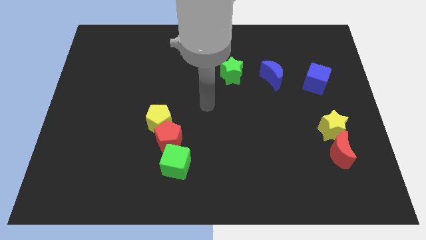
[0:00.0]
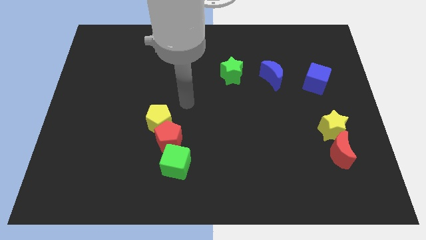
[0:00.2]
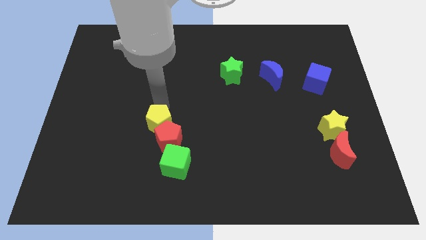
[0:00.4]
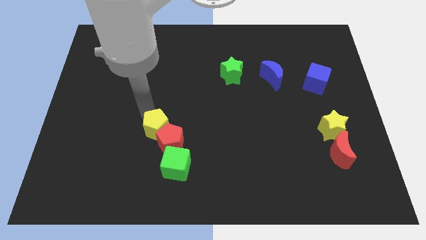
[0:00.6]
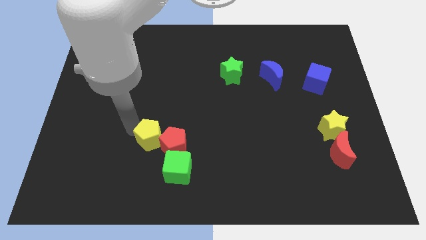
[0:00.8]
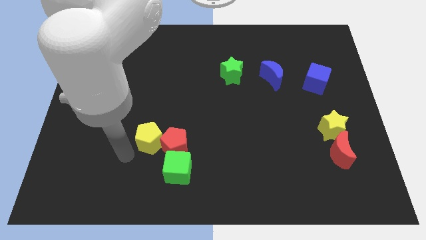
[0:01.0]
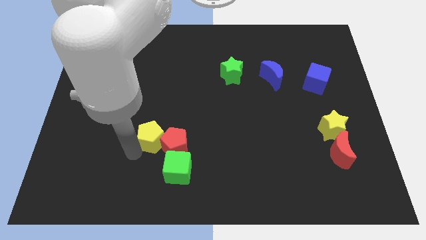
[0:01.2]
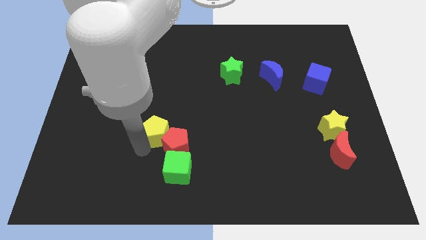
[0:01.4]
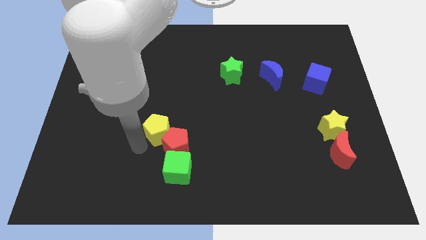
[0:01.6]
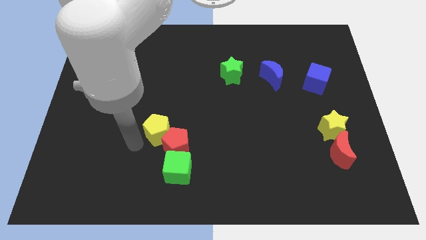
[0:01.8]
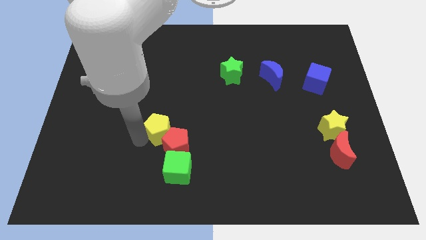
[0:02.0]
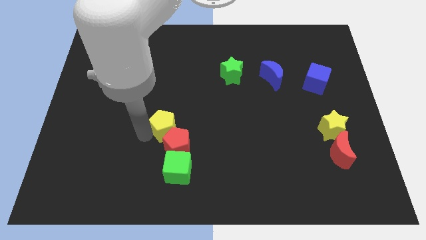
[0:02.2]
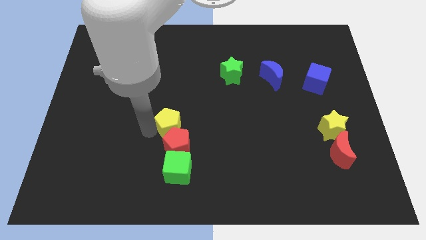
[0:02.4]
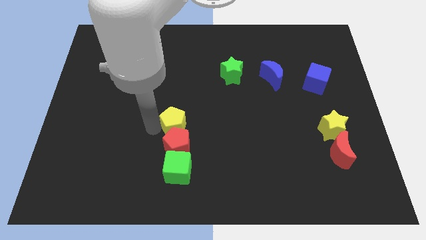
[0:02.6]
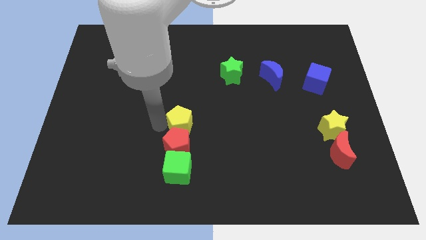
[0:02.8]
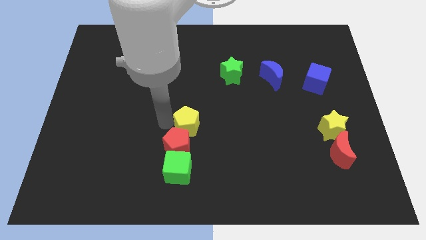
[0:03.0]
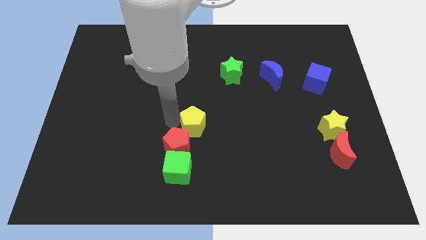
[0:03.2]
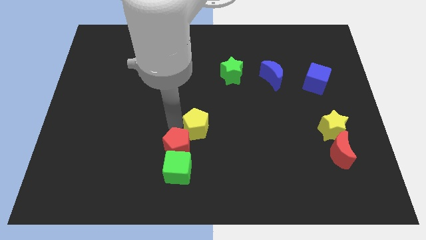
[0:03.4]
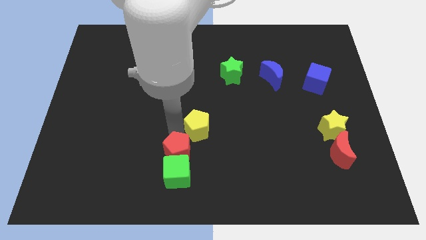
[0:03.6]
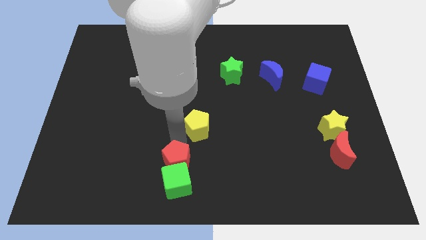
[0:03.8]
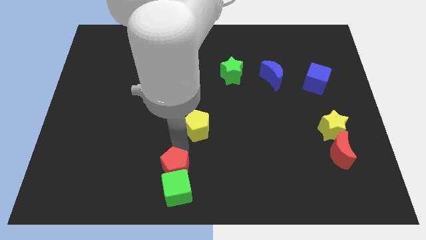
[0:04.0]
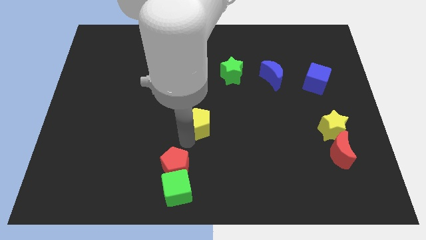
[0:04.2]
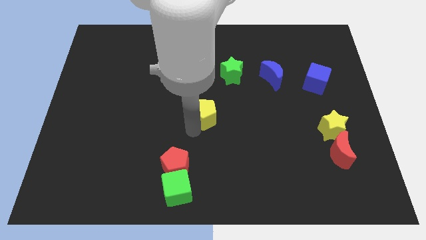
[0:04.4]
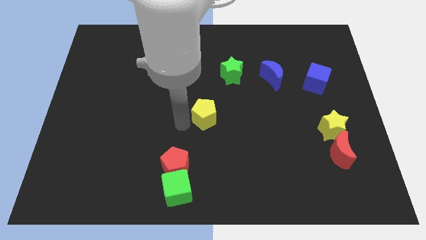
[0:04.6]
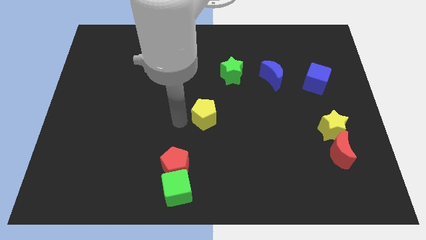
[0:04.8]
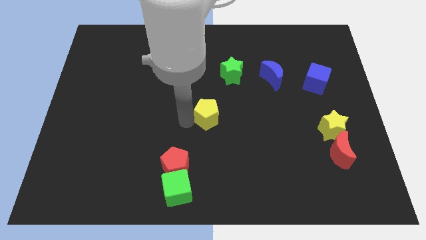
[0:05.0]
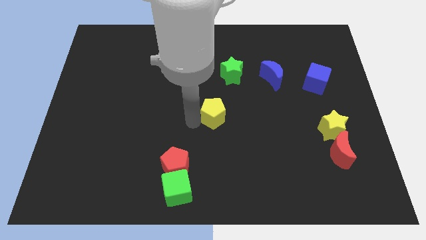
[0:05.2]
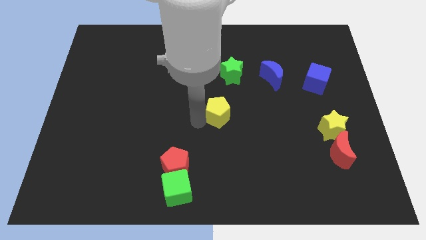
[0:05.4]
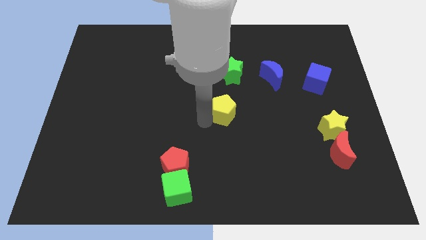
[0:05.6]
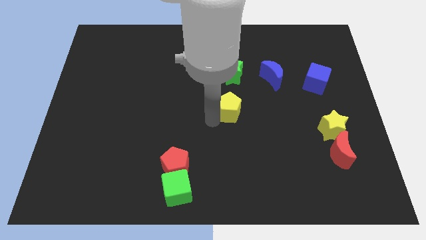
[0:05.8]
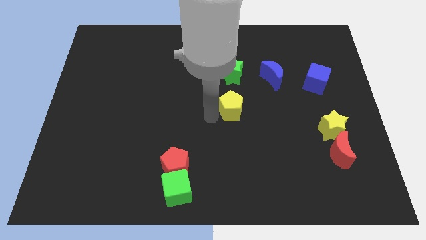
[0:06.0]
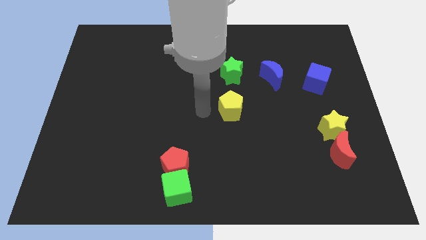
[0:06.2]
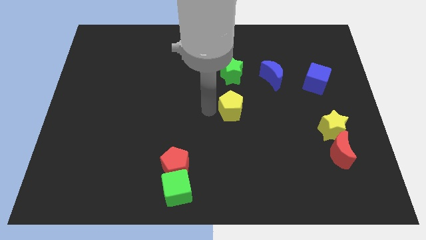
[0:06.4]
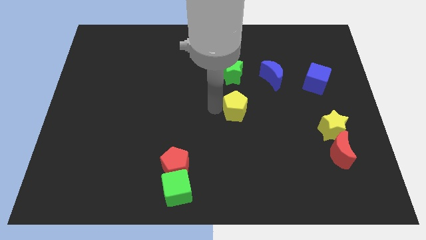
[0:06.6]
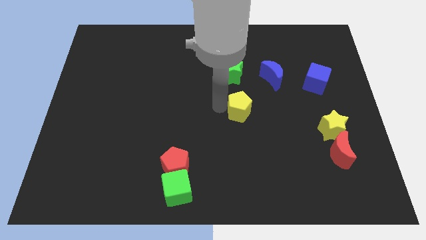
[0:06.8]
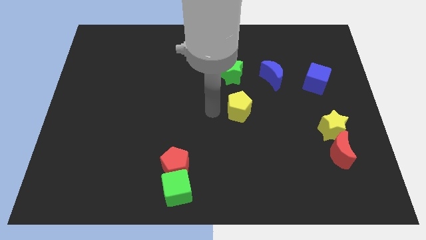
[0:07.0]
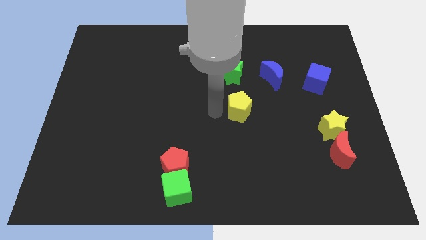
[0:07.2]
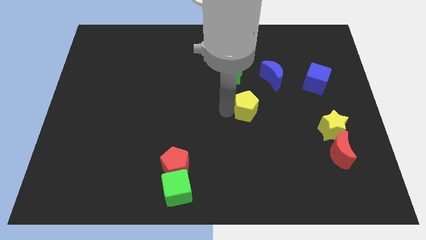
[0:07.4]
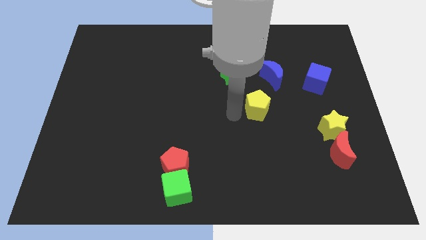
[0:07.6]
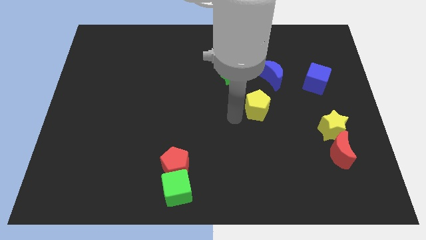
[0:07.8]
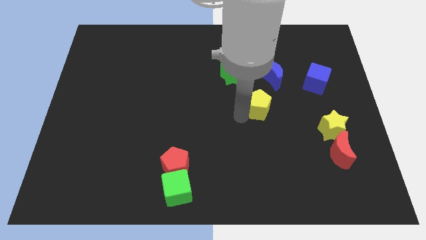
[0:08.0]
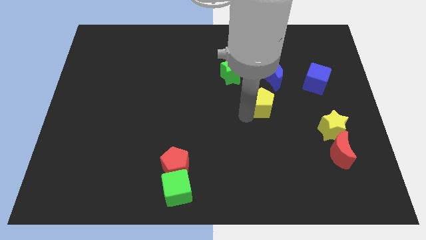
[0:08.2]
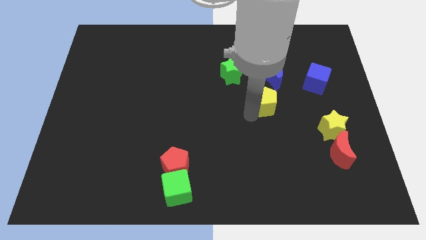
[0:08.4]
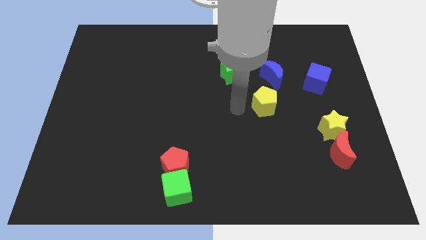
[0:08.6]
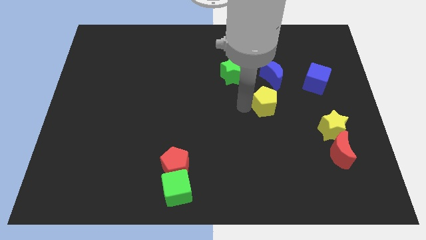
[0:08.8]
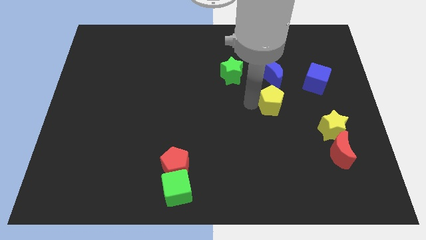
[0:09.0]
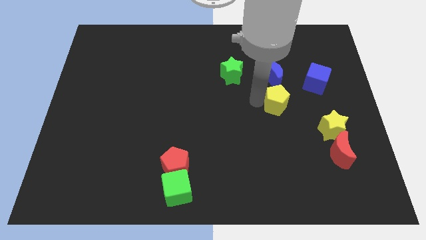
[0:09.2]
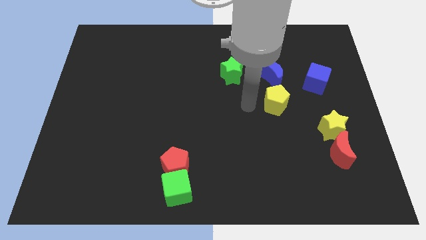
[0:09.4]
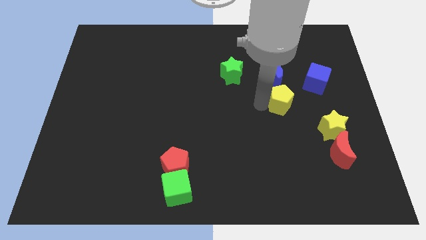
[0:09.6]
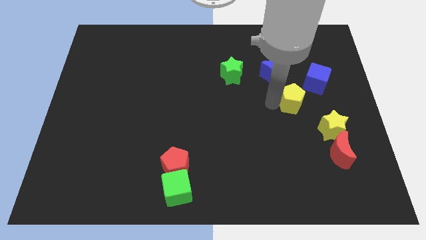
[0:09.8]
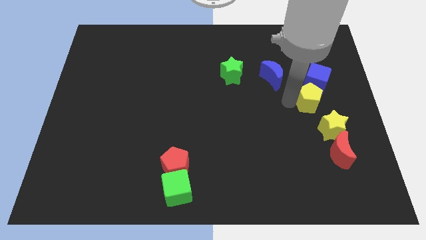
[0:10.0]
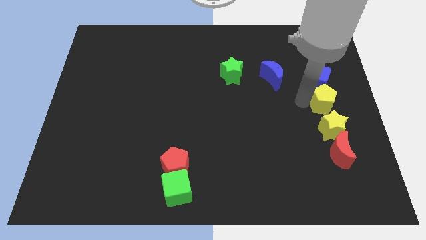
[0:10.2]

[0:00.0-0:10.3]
move the yellow pentagon to the center right

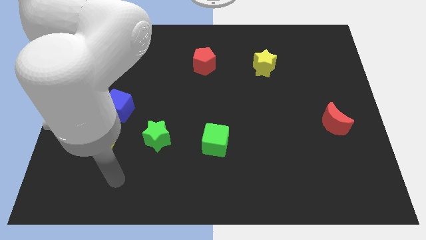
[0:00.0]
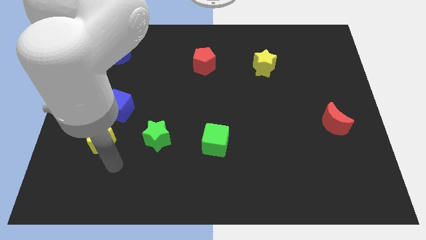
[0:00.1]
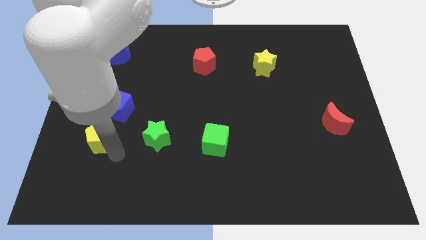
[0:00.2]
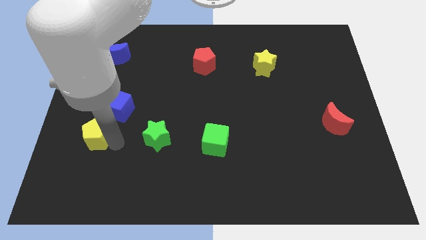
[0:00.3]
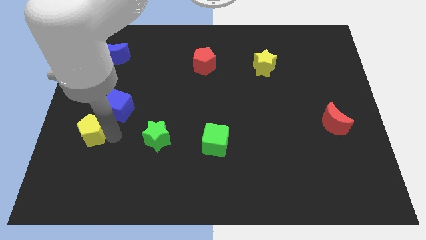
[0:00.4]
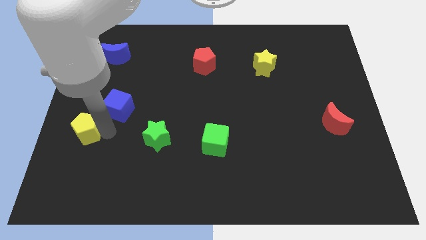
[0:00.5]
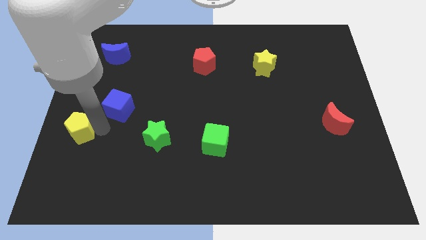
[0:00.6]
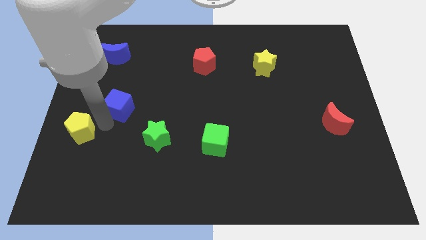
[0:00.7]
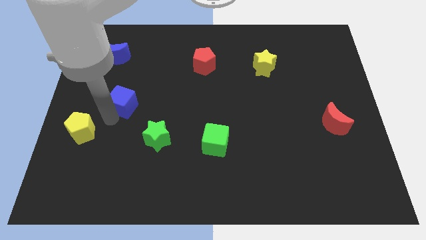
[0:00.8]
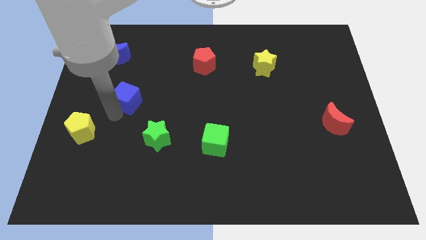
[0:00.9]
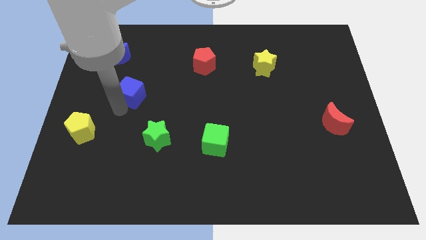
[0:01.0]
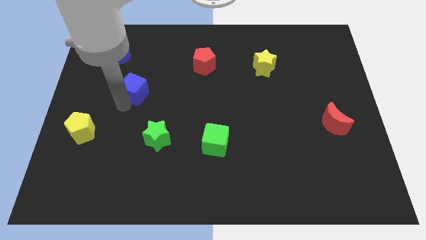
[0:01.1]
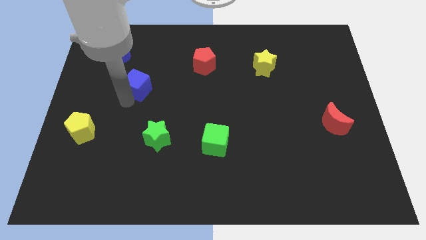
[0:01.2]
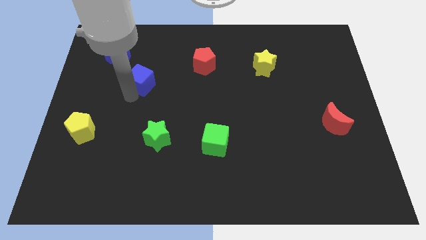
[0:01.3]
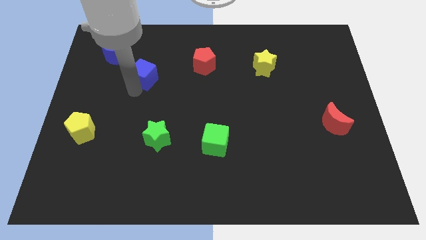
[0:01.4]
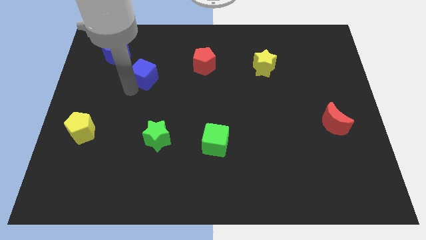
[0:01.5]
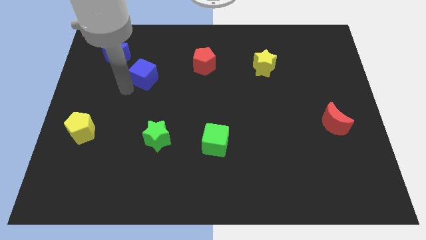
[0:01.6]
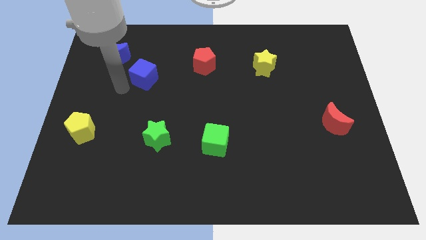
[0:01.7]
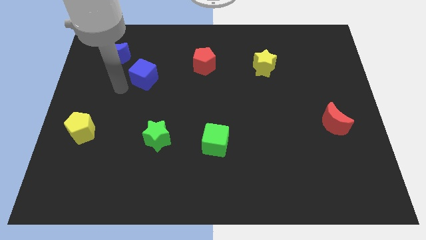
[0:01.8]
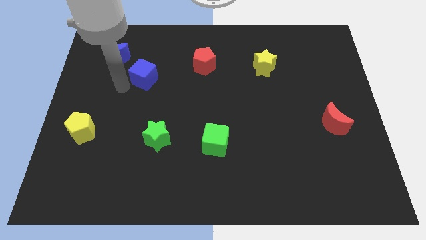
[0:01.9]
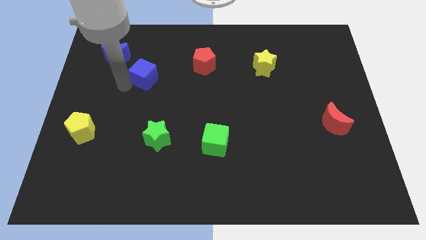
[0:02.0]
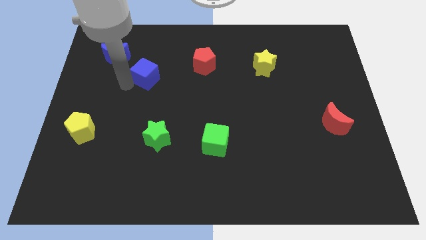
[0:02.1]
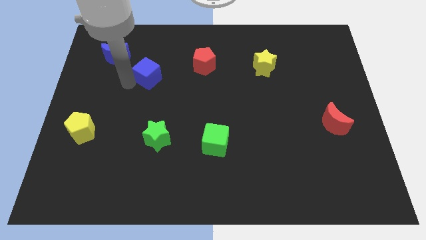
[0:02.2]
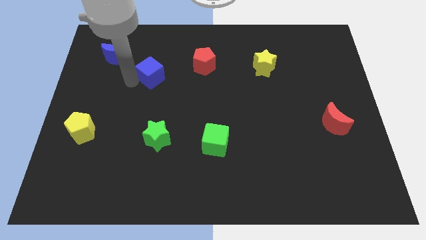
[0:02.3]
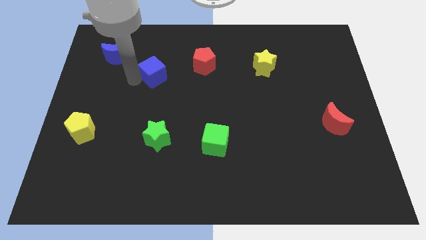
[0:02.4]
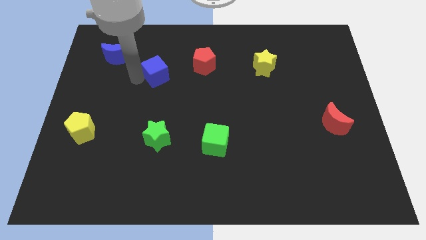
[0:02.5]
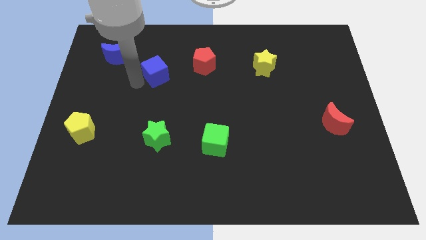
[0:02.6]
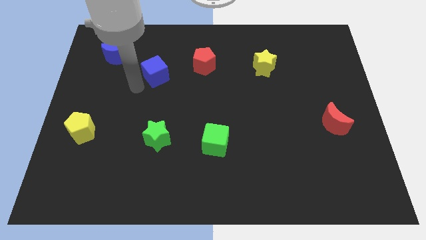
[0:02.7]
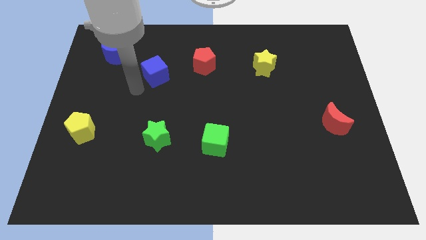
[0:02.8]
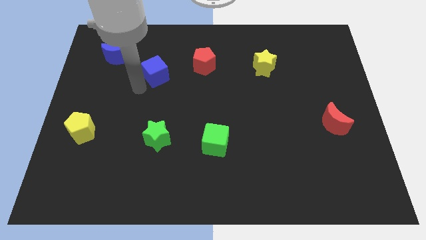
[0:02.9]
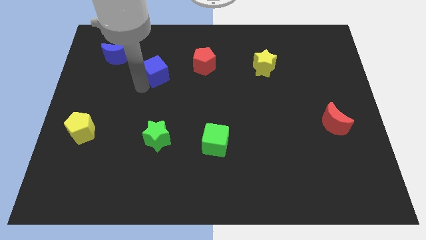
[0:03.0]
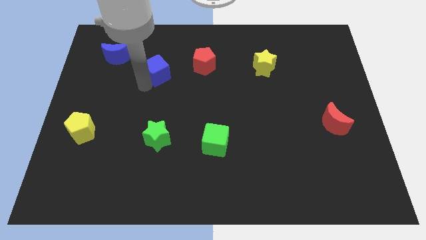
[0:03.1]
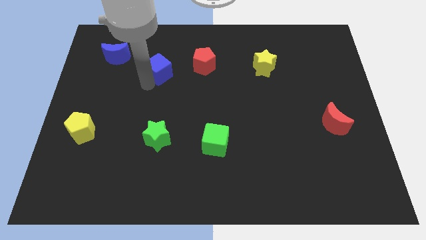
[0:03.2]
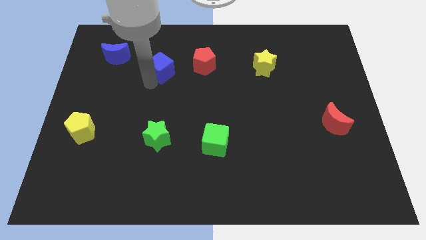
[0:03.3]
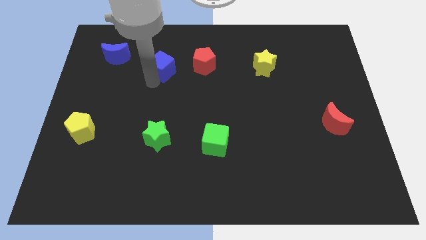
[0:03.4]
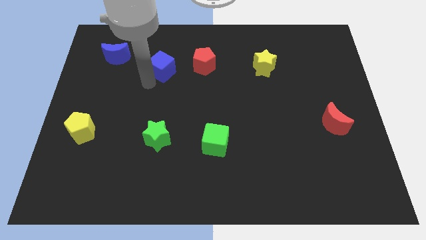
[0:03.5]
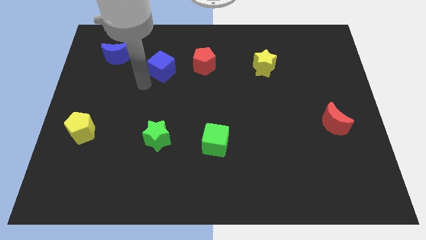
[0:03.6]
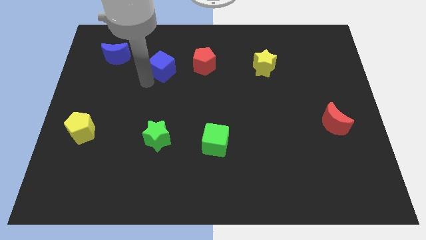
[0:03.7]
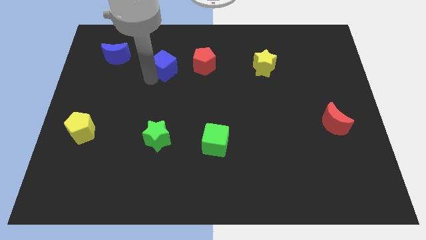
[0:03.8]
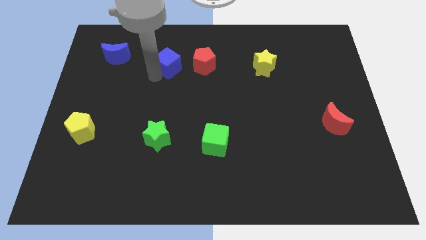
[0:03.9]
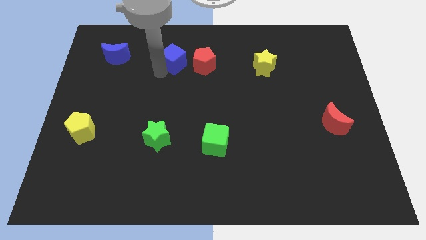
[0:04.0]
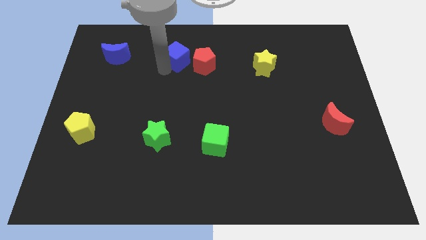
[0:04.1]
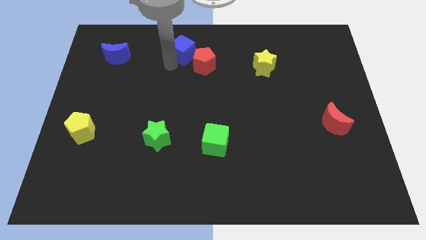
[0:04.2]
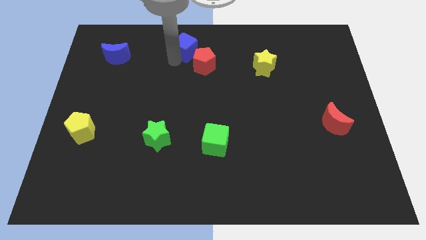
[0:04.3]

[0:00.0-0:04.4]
move the blue cube to the towards your base
